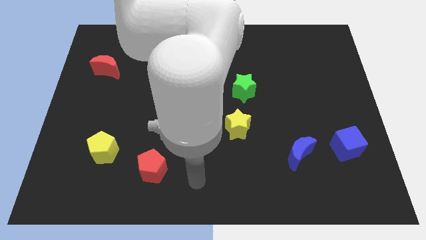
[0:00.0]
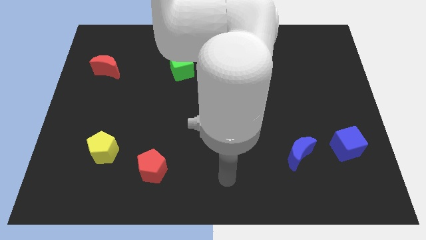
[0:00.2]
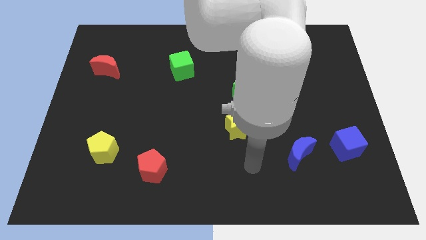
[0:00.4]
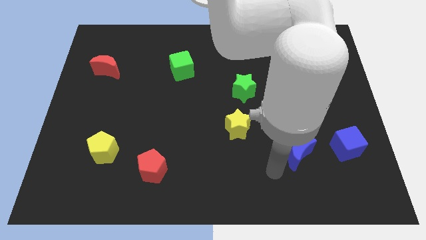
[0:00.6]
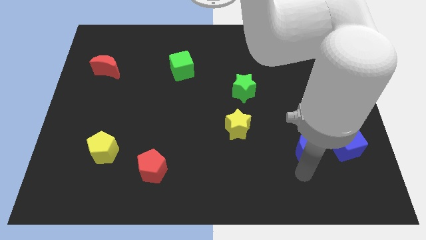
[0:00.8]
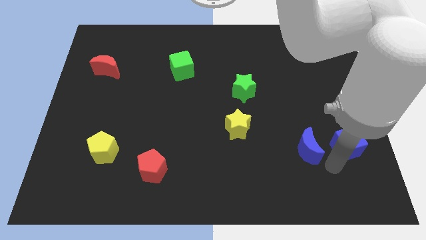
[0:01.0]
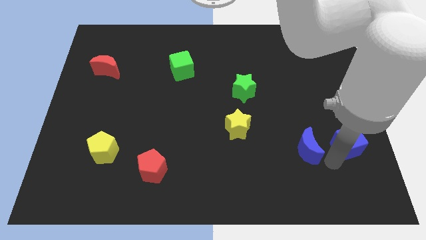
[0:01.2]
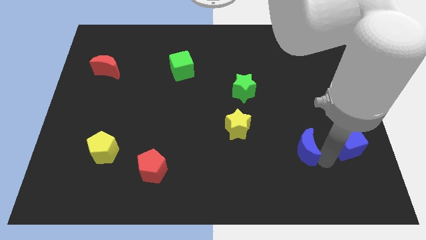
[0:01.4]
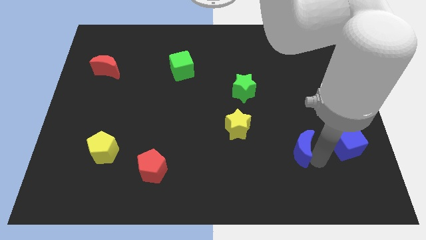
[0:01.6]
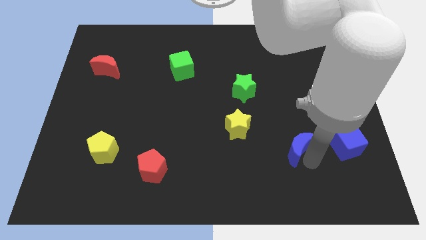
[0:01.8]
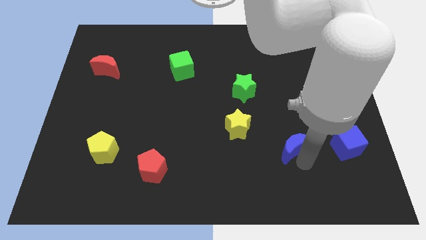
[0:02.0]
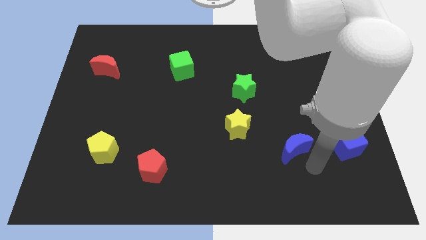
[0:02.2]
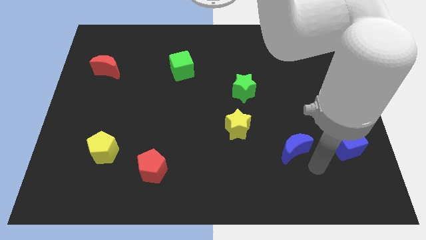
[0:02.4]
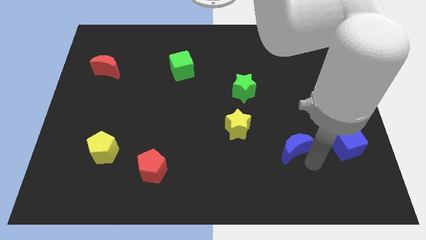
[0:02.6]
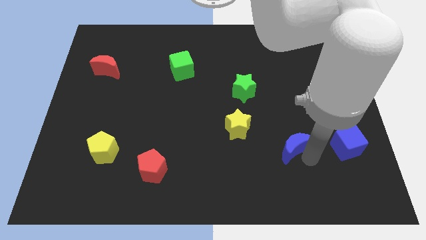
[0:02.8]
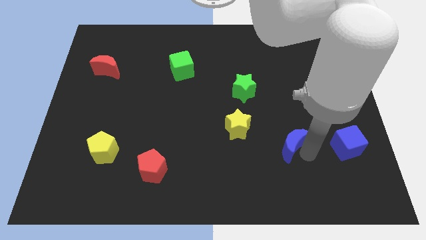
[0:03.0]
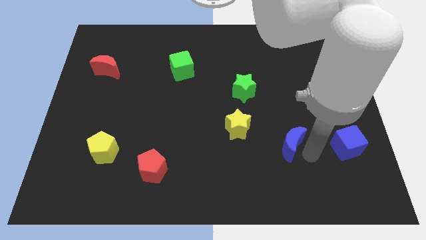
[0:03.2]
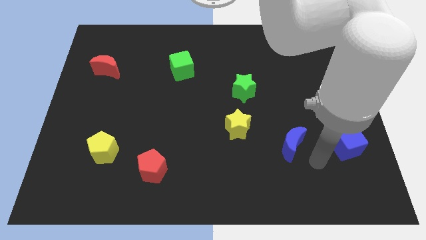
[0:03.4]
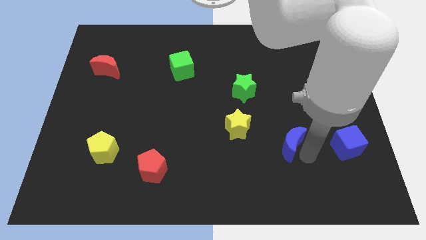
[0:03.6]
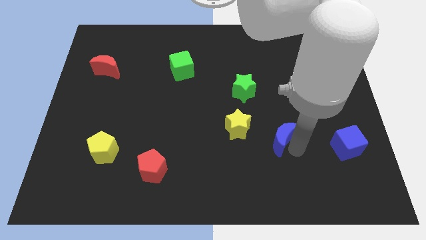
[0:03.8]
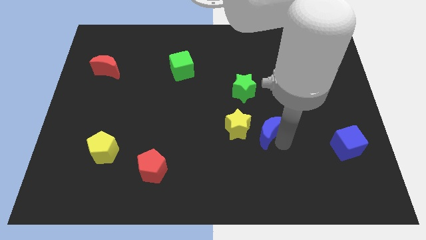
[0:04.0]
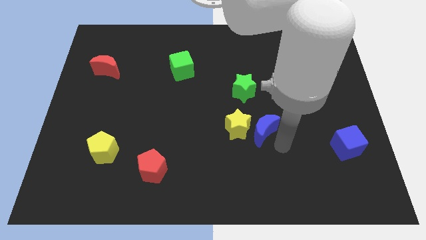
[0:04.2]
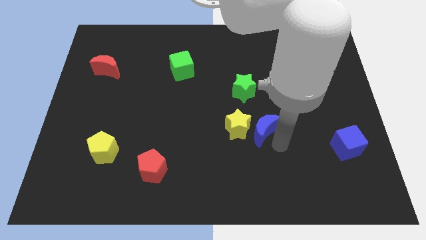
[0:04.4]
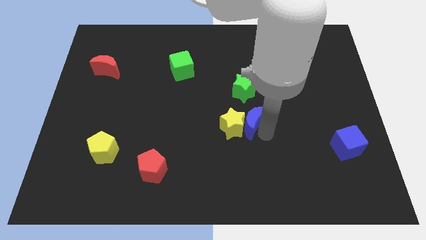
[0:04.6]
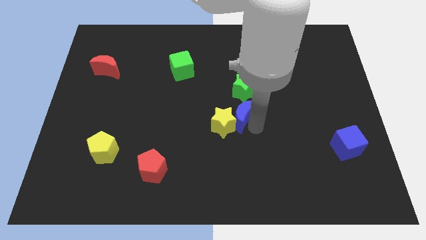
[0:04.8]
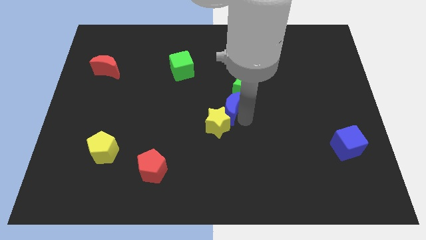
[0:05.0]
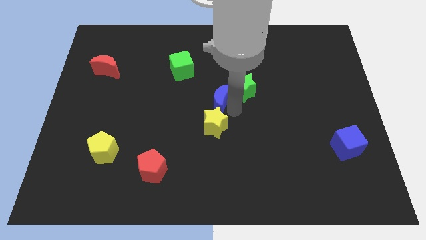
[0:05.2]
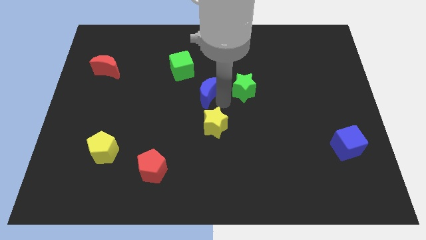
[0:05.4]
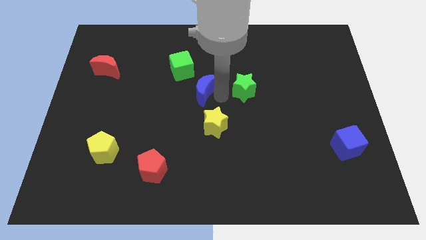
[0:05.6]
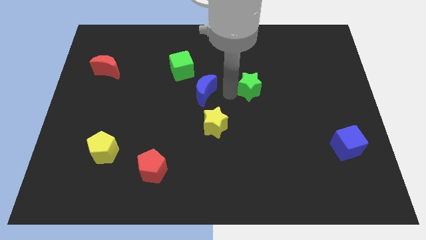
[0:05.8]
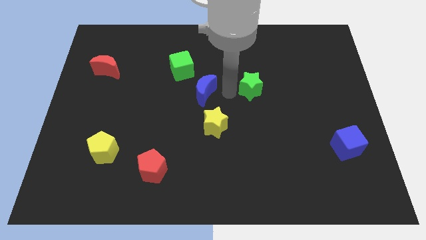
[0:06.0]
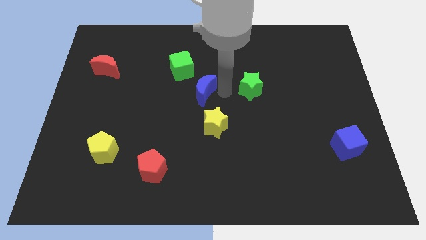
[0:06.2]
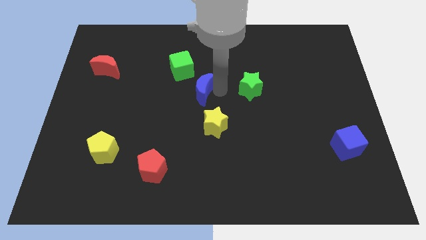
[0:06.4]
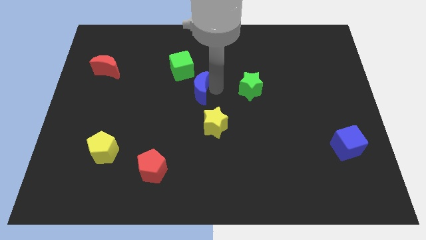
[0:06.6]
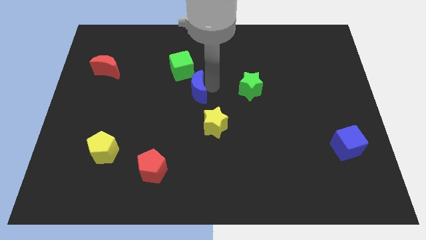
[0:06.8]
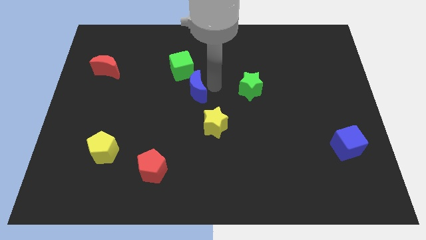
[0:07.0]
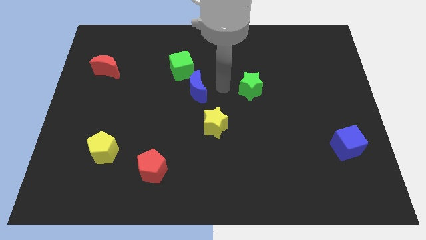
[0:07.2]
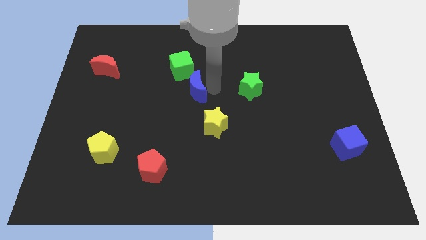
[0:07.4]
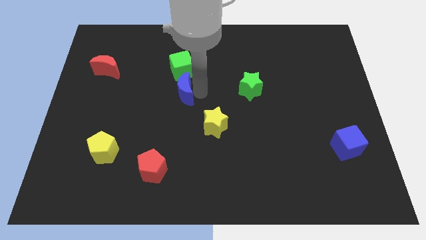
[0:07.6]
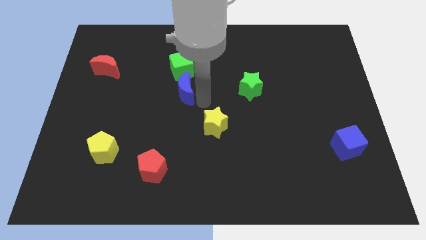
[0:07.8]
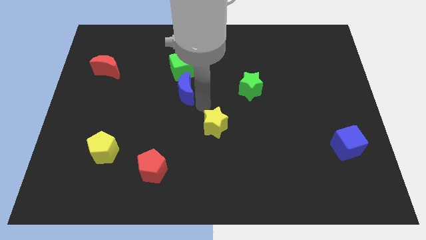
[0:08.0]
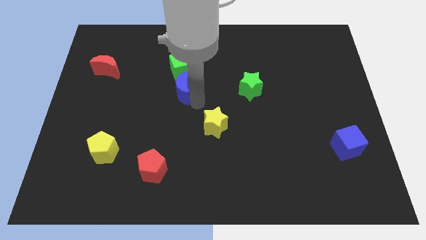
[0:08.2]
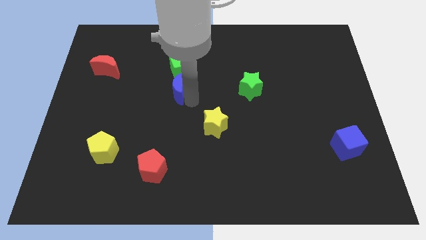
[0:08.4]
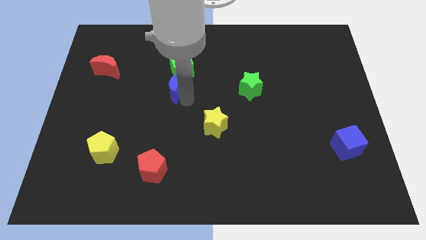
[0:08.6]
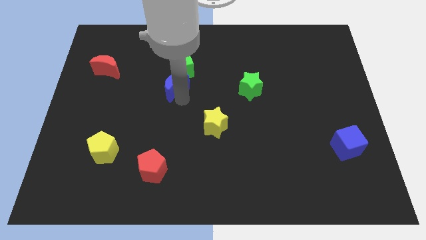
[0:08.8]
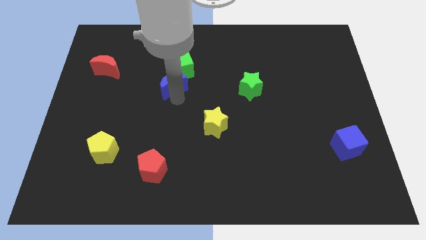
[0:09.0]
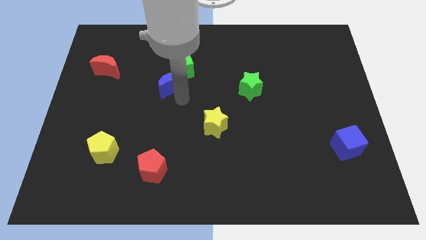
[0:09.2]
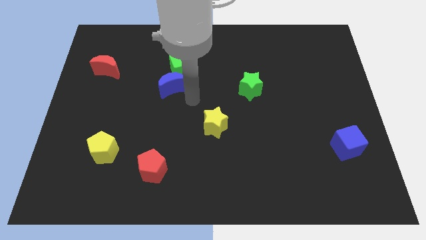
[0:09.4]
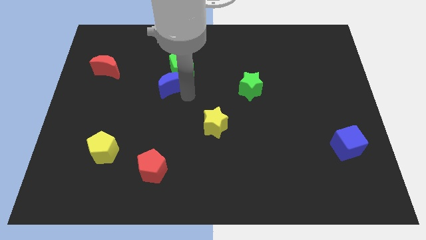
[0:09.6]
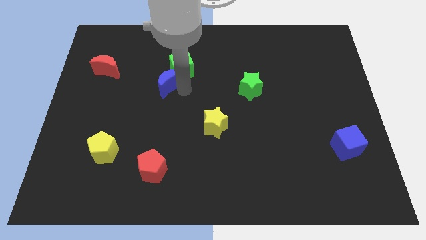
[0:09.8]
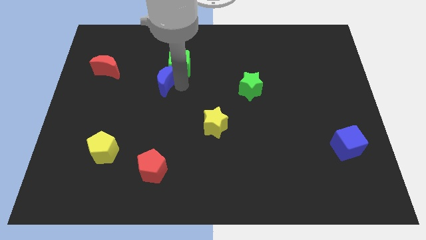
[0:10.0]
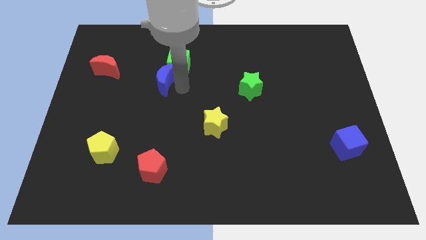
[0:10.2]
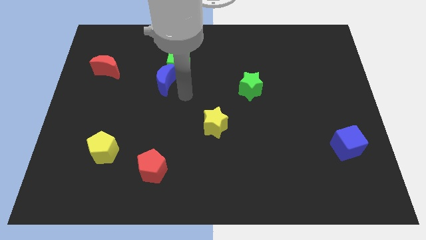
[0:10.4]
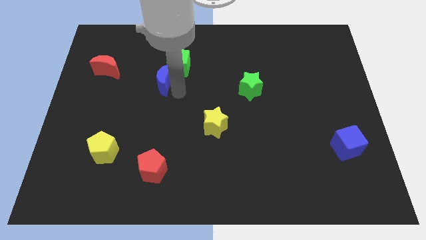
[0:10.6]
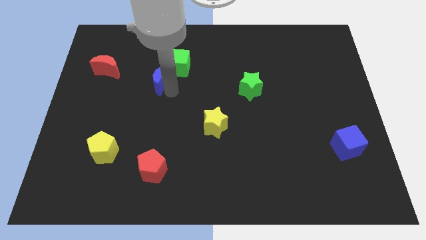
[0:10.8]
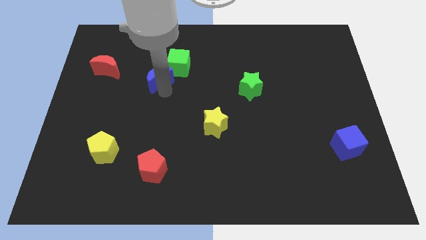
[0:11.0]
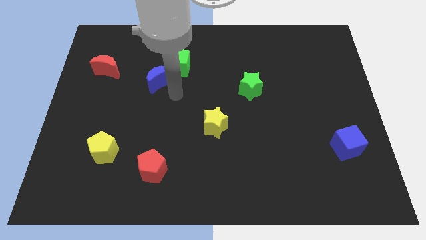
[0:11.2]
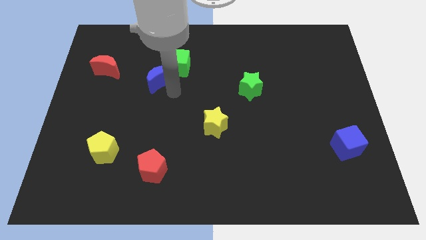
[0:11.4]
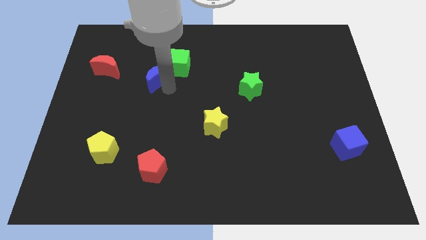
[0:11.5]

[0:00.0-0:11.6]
move the blue moon just left of the green cube

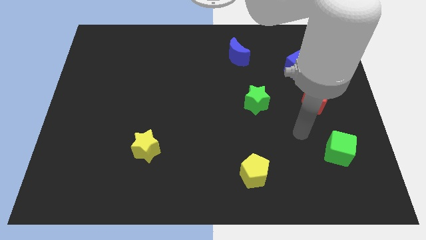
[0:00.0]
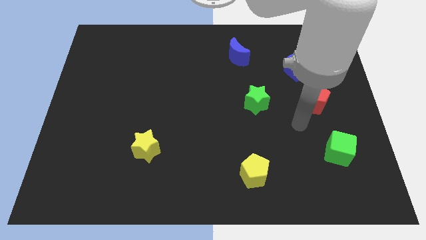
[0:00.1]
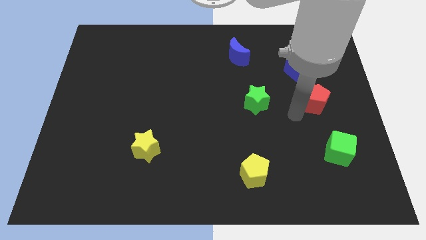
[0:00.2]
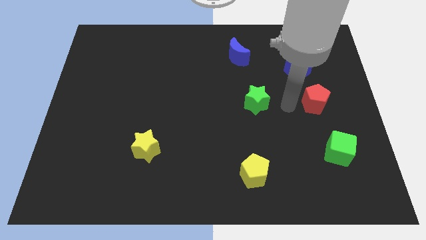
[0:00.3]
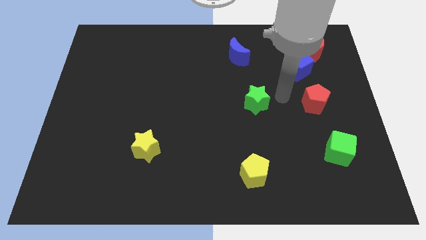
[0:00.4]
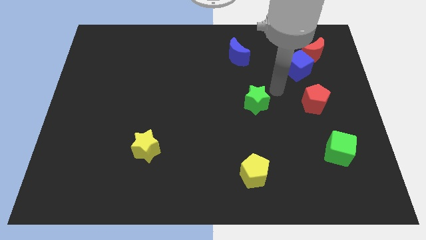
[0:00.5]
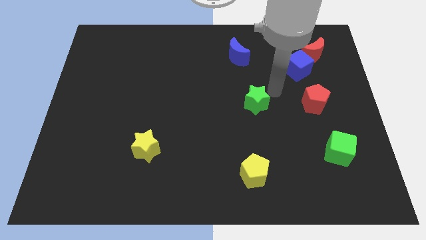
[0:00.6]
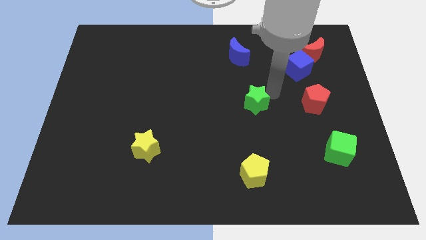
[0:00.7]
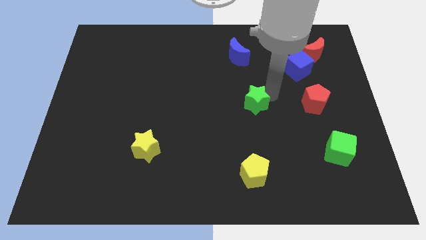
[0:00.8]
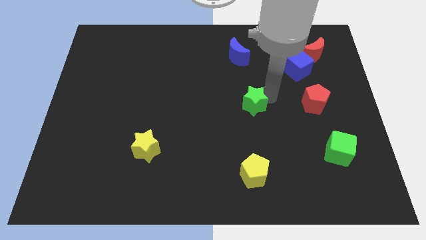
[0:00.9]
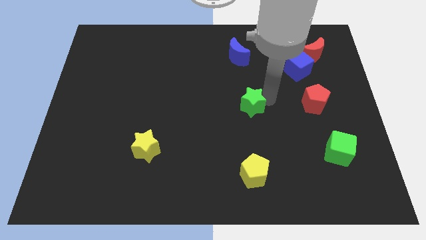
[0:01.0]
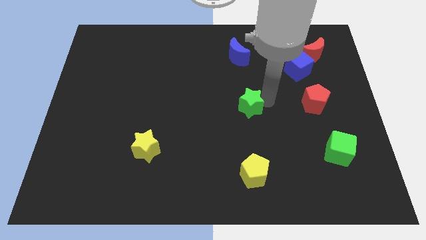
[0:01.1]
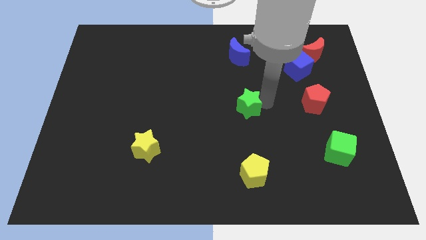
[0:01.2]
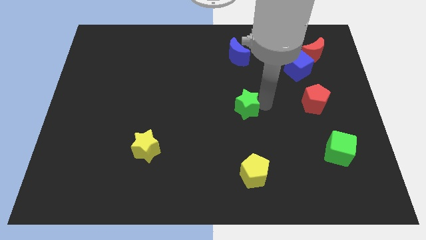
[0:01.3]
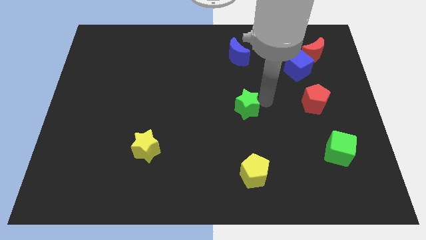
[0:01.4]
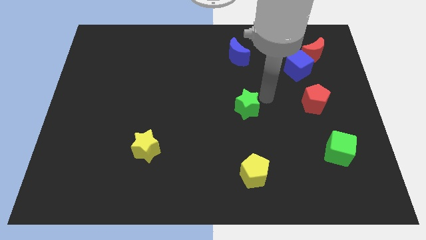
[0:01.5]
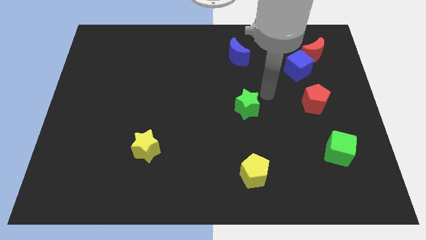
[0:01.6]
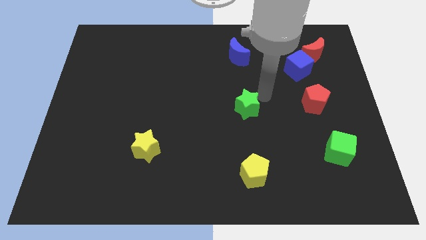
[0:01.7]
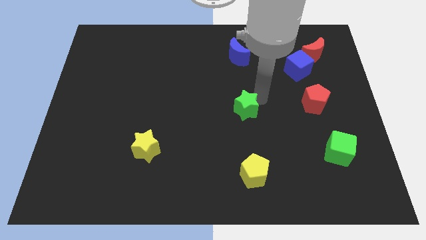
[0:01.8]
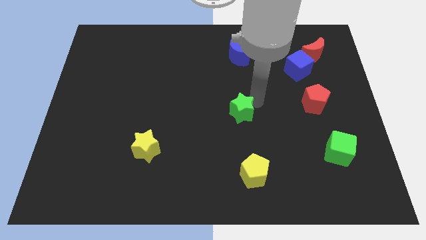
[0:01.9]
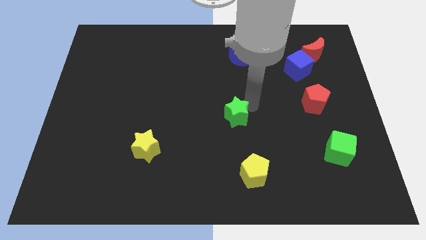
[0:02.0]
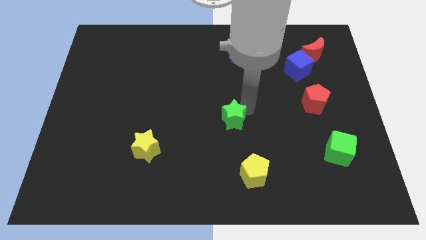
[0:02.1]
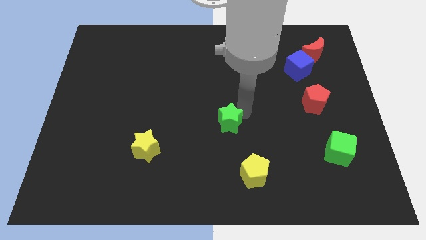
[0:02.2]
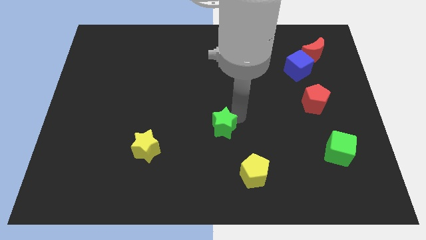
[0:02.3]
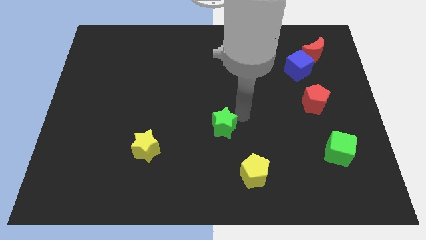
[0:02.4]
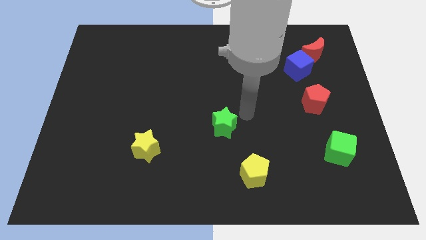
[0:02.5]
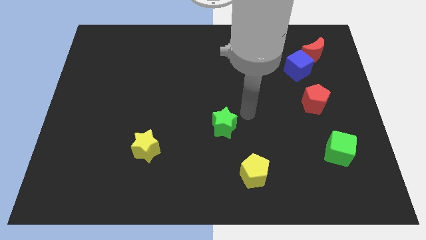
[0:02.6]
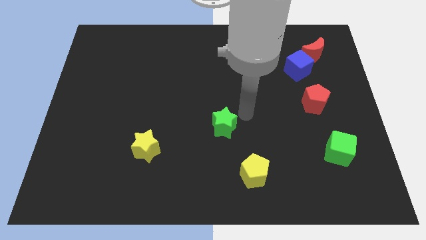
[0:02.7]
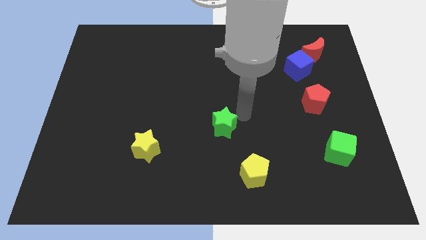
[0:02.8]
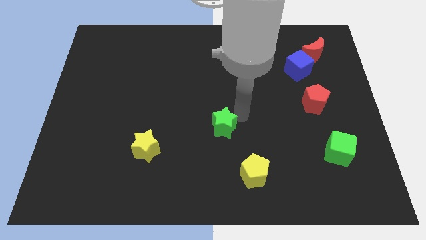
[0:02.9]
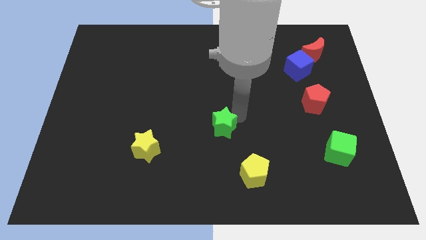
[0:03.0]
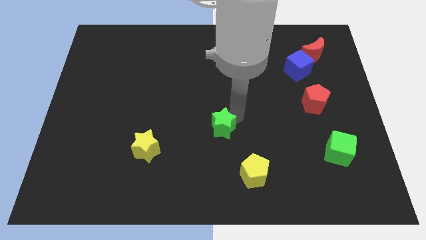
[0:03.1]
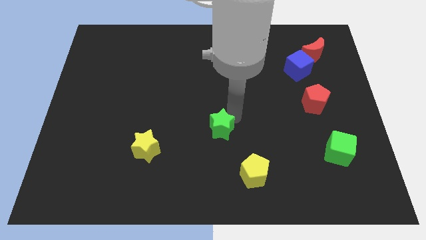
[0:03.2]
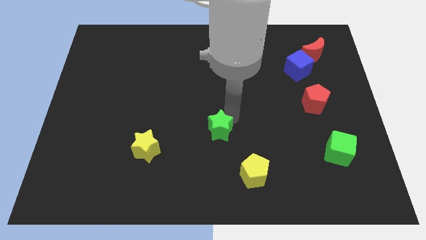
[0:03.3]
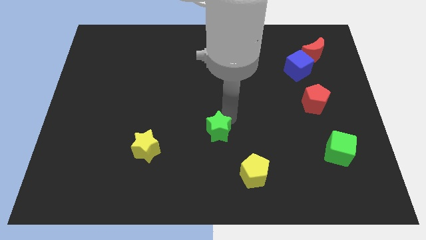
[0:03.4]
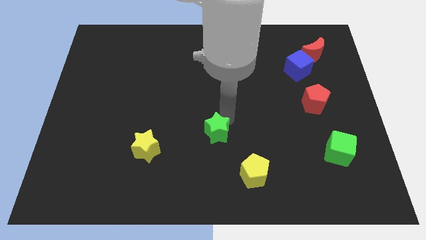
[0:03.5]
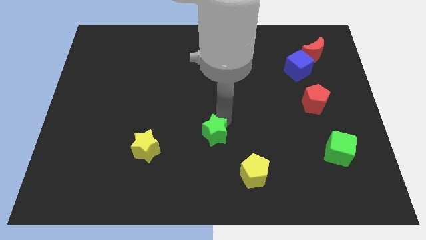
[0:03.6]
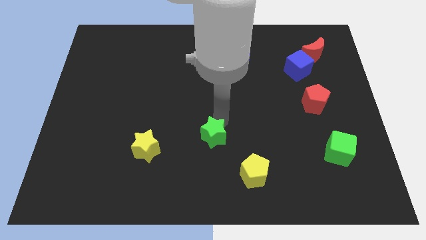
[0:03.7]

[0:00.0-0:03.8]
put the green star right of the yellow star
